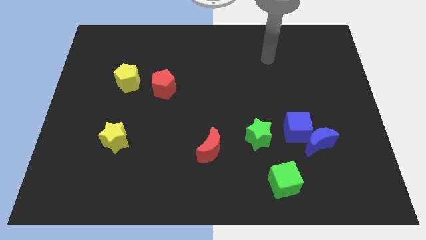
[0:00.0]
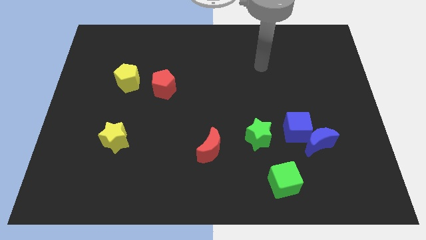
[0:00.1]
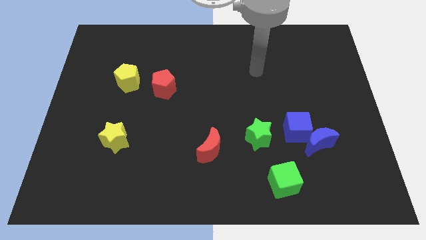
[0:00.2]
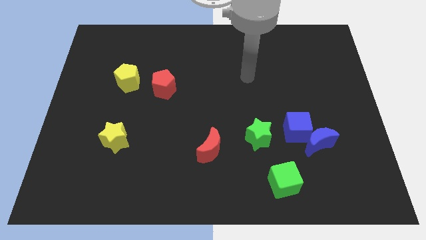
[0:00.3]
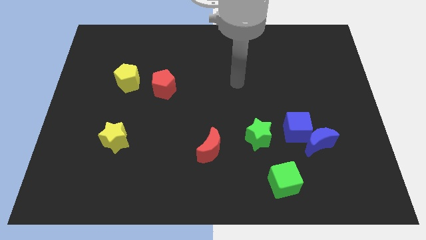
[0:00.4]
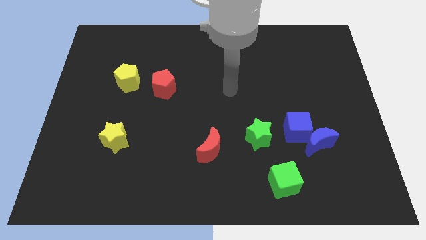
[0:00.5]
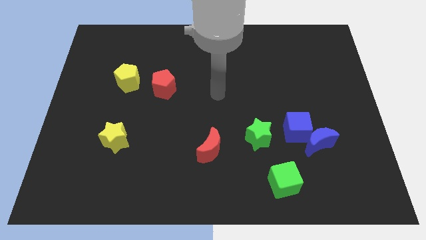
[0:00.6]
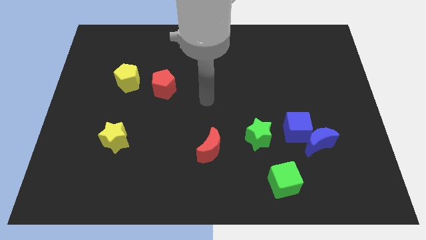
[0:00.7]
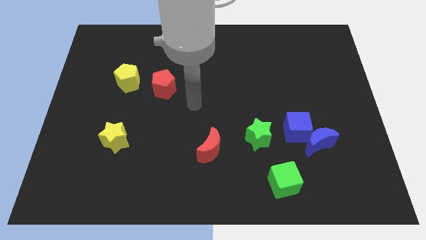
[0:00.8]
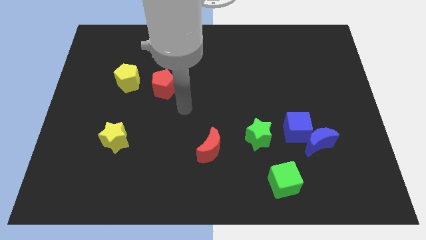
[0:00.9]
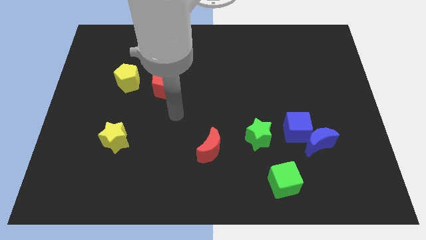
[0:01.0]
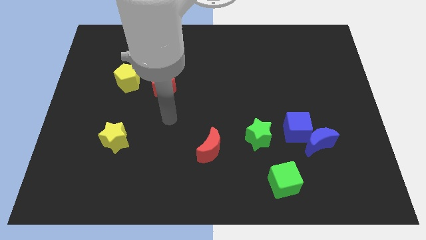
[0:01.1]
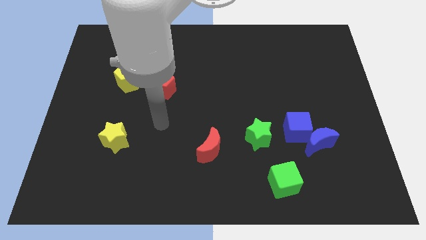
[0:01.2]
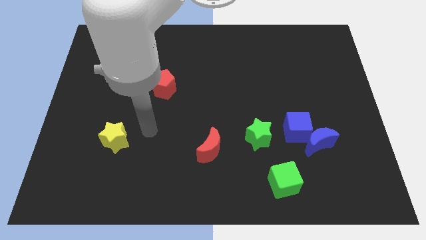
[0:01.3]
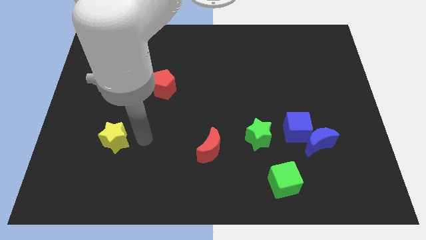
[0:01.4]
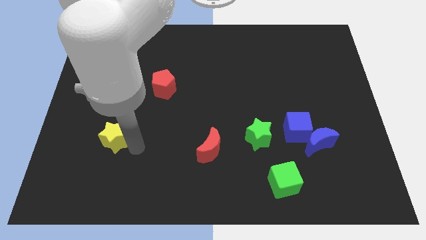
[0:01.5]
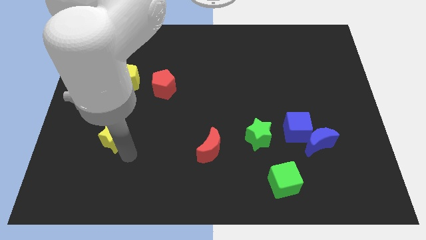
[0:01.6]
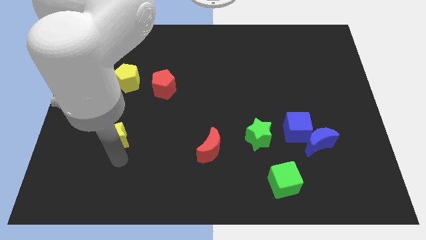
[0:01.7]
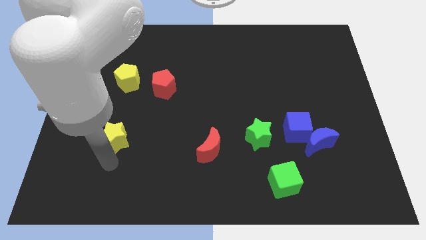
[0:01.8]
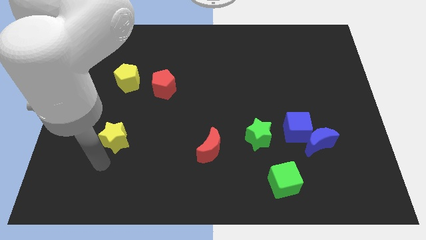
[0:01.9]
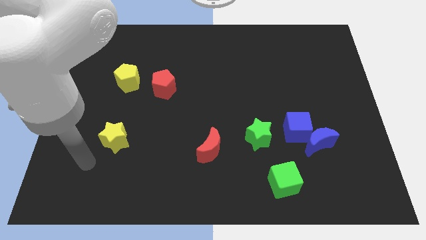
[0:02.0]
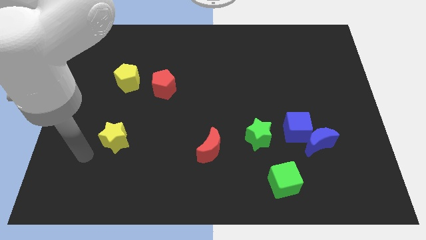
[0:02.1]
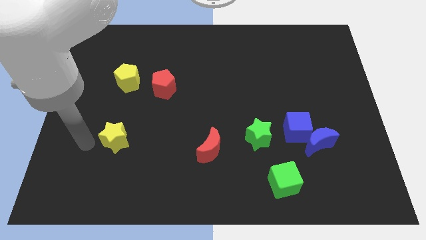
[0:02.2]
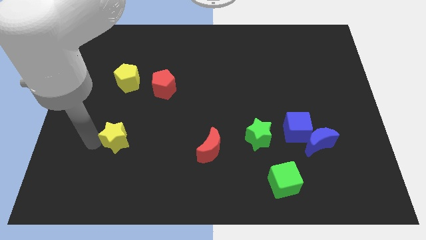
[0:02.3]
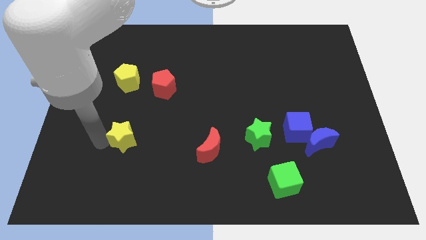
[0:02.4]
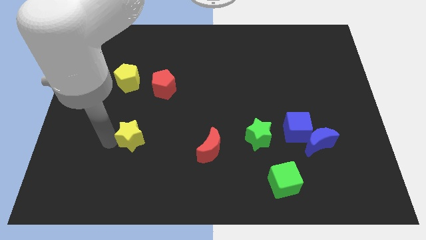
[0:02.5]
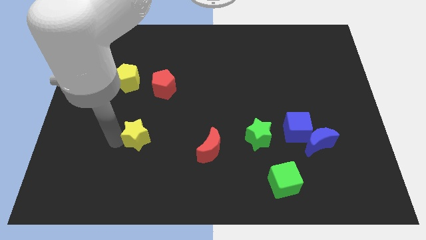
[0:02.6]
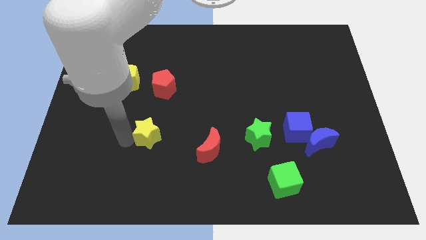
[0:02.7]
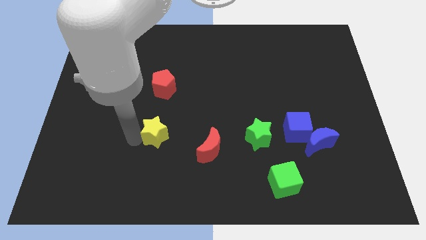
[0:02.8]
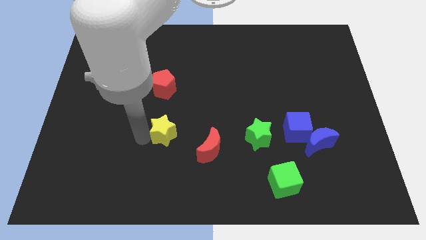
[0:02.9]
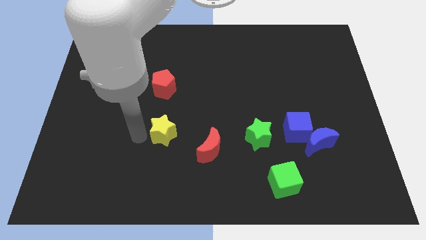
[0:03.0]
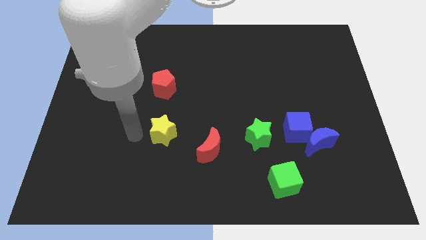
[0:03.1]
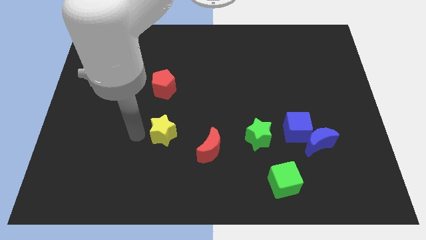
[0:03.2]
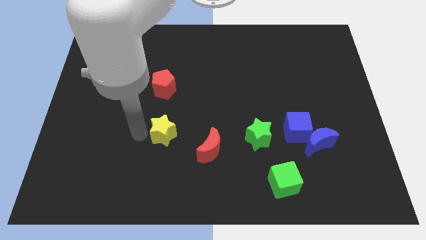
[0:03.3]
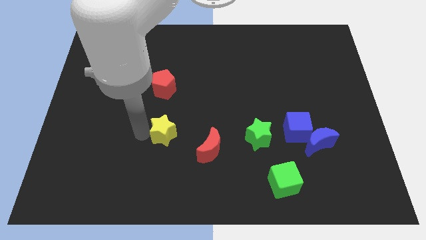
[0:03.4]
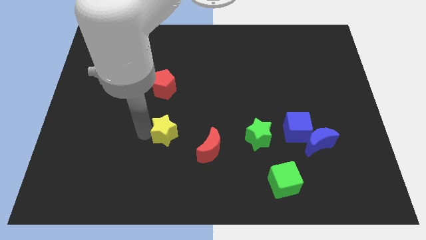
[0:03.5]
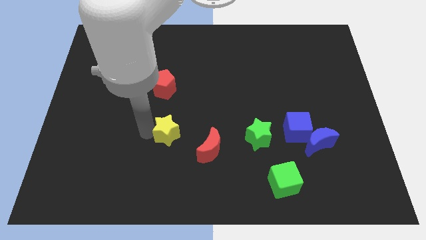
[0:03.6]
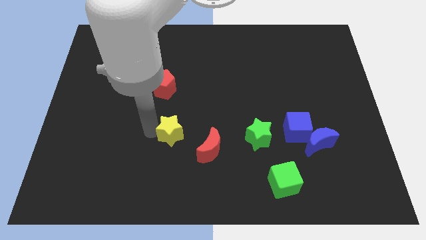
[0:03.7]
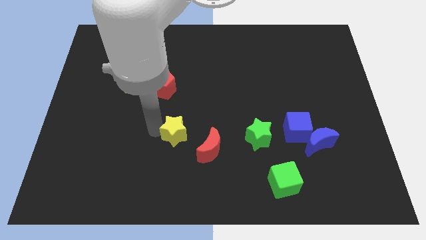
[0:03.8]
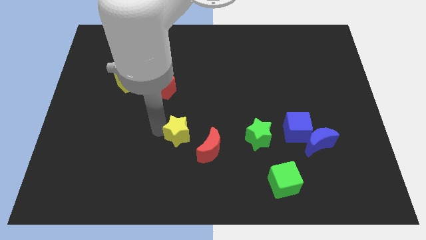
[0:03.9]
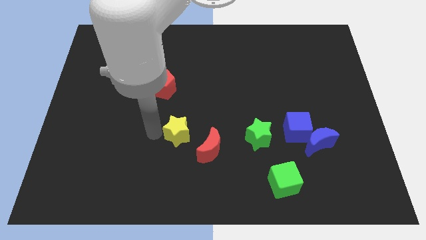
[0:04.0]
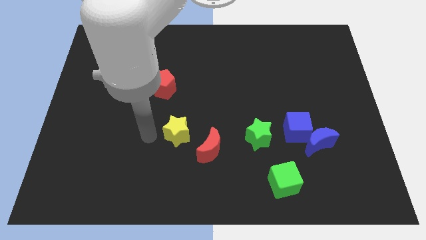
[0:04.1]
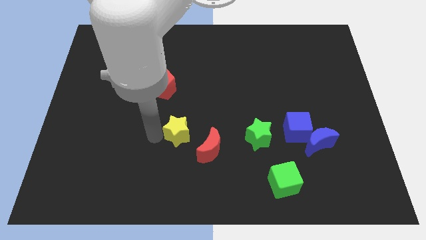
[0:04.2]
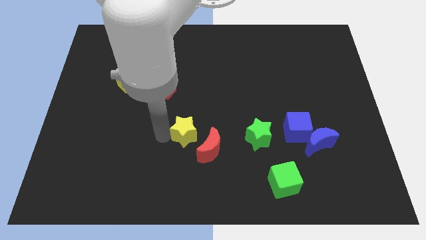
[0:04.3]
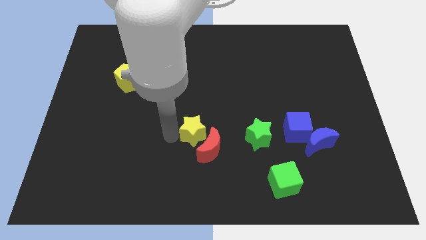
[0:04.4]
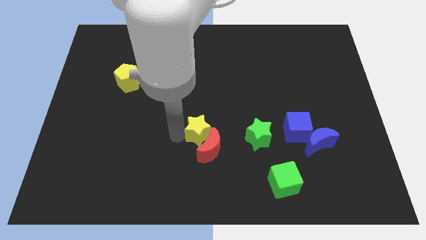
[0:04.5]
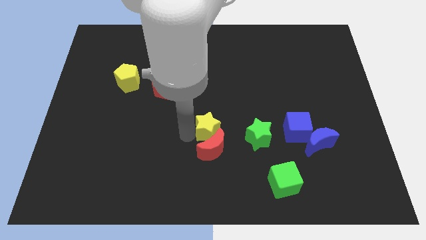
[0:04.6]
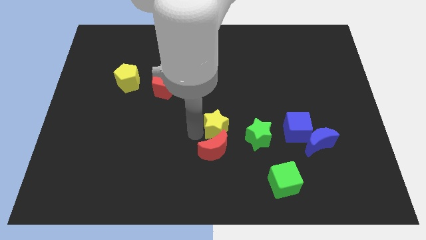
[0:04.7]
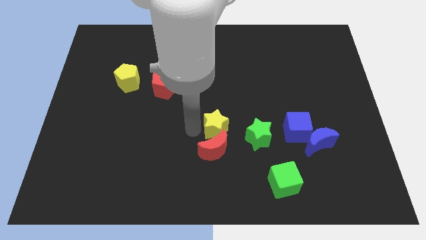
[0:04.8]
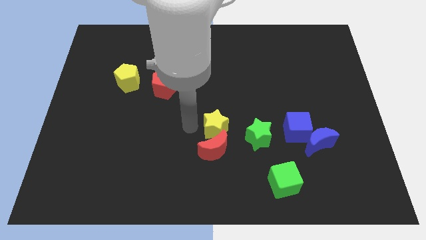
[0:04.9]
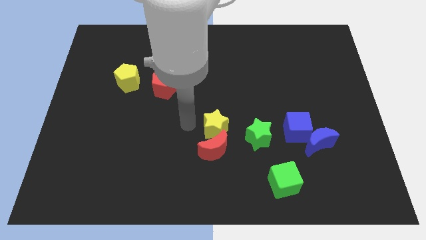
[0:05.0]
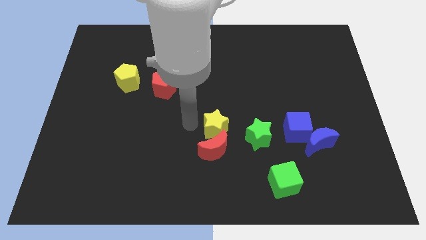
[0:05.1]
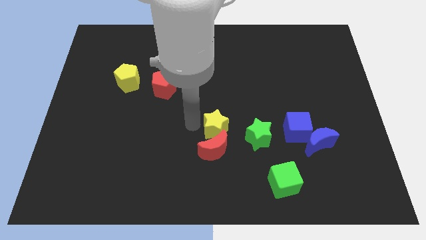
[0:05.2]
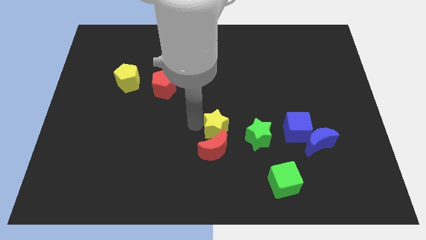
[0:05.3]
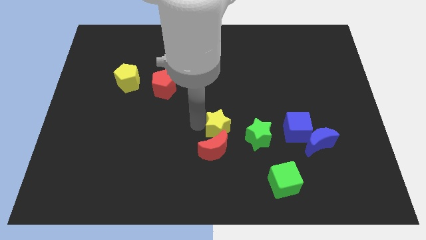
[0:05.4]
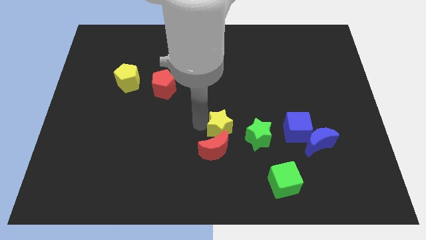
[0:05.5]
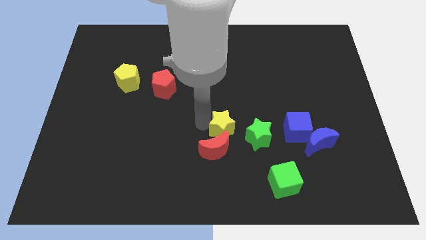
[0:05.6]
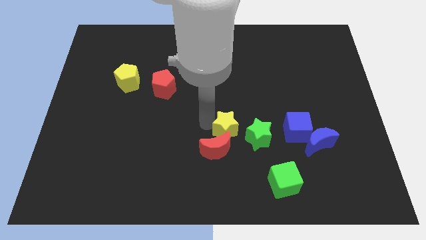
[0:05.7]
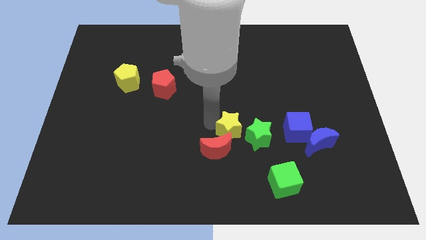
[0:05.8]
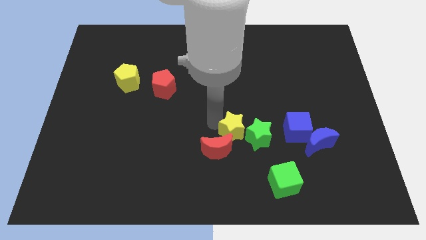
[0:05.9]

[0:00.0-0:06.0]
push the yellow star close to the green star

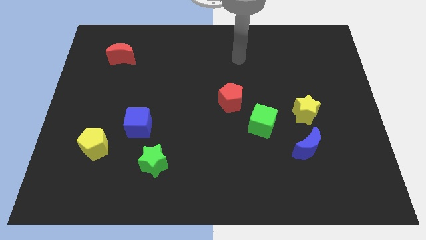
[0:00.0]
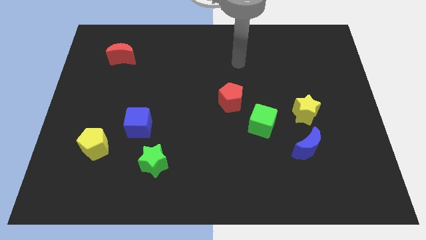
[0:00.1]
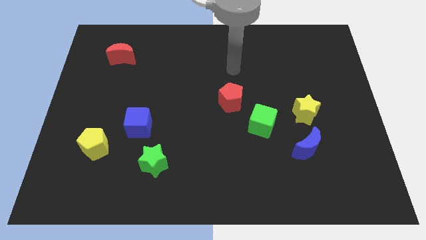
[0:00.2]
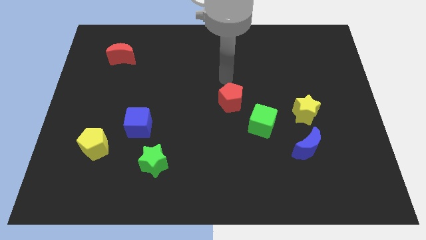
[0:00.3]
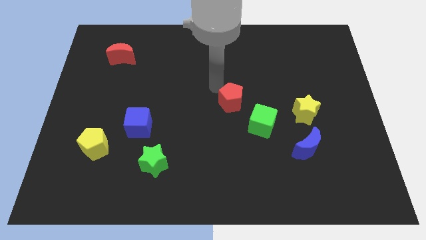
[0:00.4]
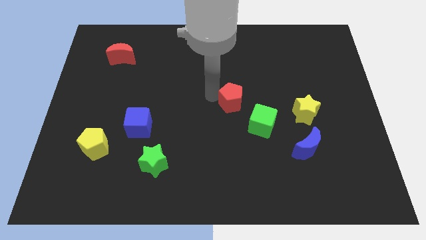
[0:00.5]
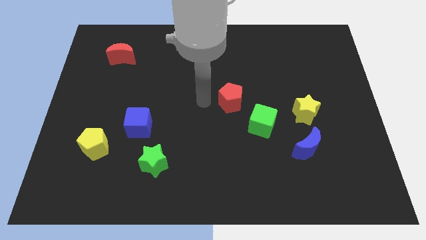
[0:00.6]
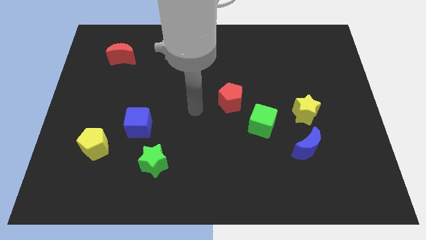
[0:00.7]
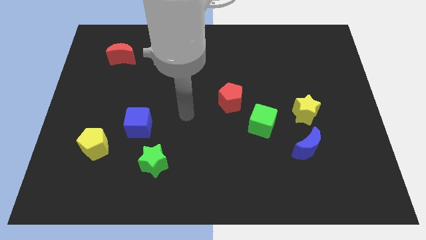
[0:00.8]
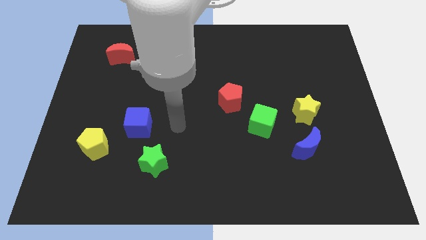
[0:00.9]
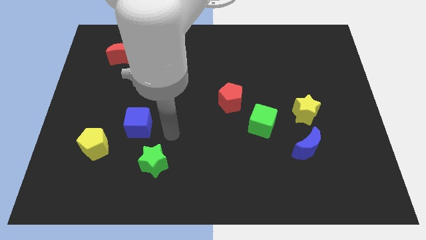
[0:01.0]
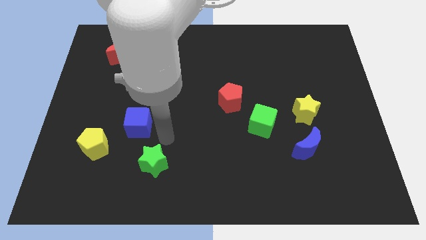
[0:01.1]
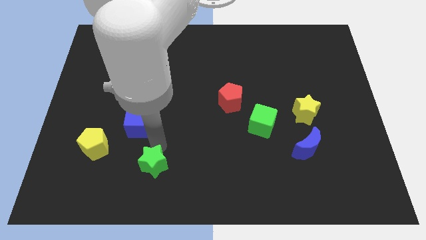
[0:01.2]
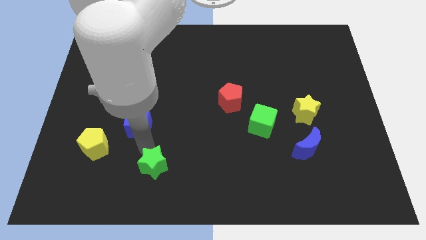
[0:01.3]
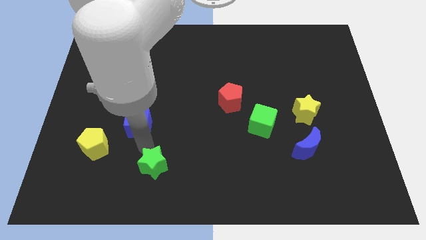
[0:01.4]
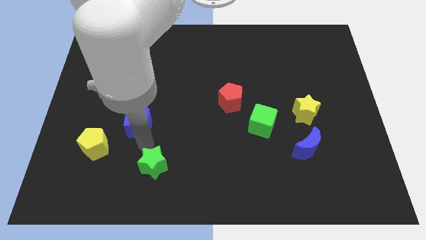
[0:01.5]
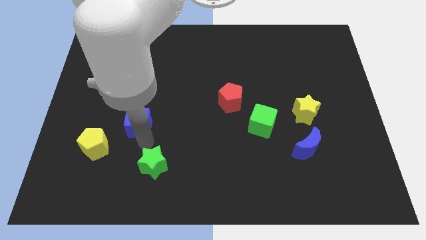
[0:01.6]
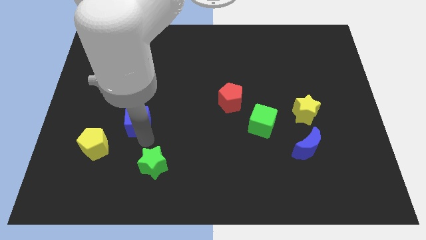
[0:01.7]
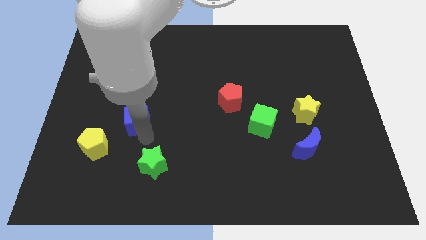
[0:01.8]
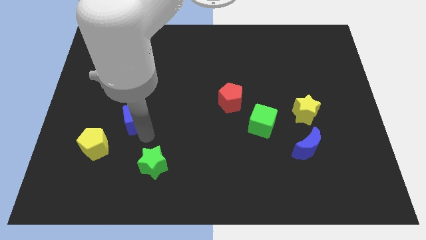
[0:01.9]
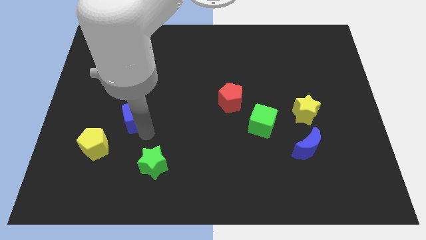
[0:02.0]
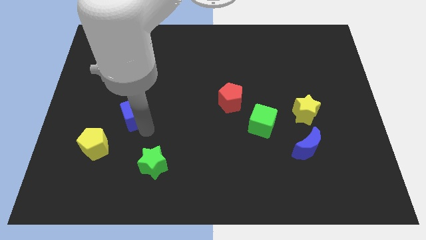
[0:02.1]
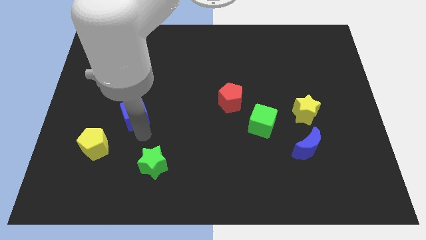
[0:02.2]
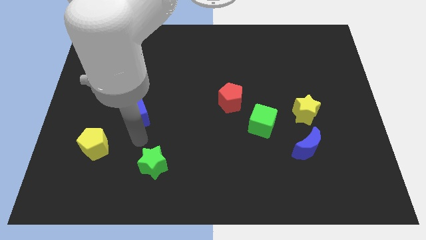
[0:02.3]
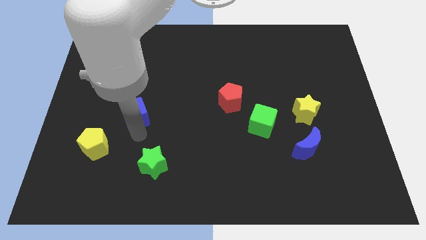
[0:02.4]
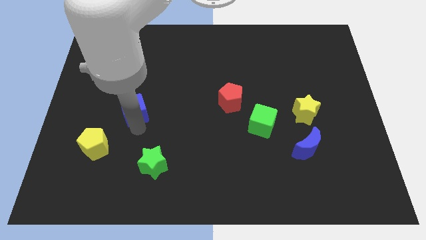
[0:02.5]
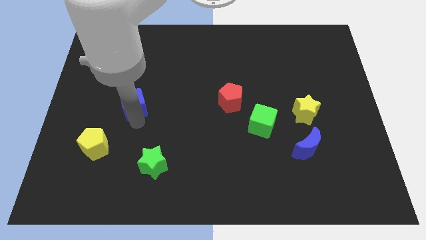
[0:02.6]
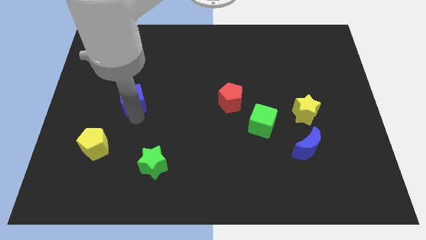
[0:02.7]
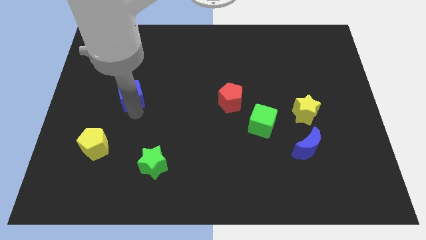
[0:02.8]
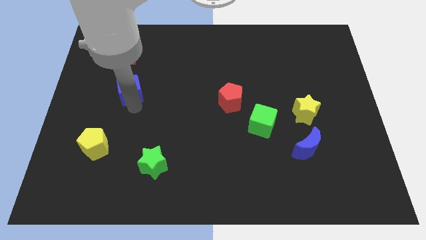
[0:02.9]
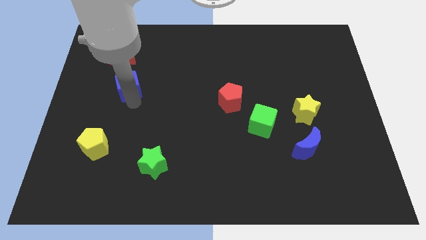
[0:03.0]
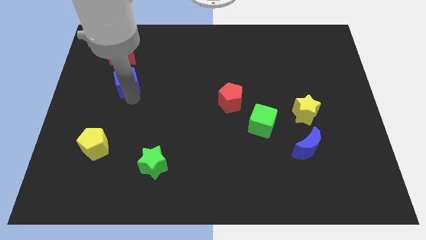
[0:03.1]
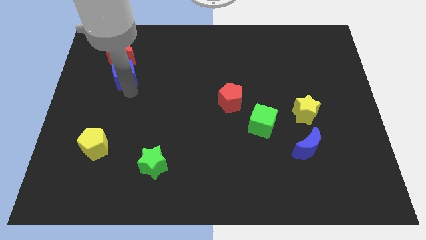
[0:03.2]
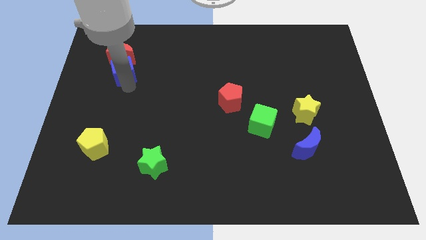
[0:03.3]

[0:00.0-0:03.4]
move the blue cube to the red moon
